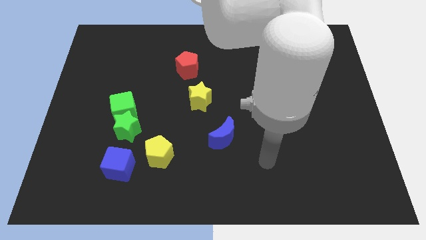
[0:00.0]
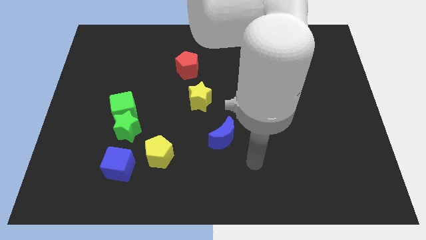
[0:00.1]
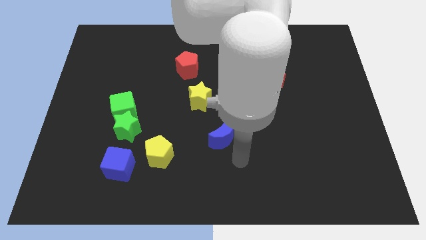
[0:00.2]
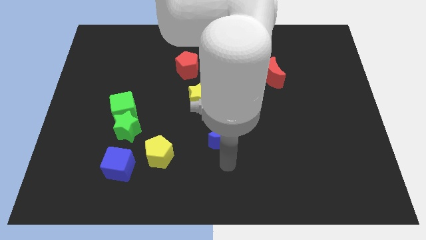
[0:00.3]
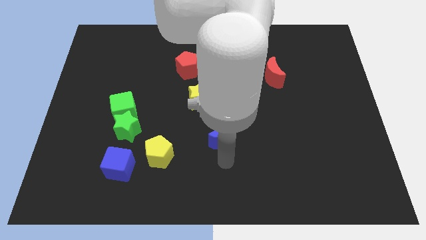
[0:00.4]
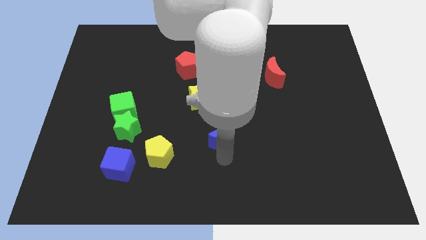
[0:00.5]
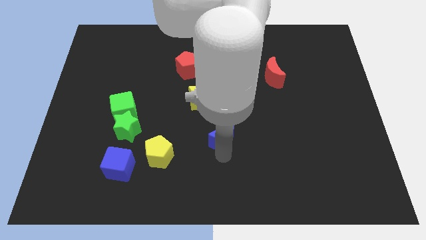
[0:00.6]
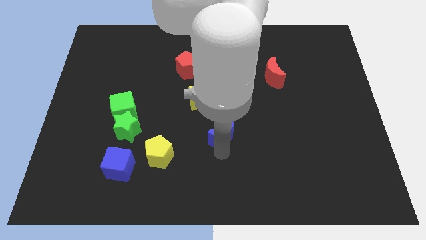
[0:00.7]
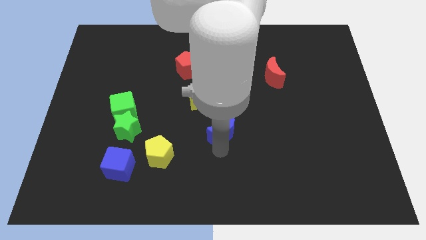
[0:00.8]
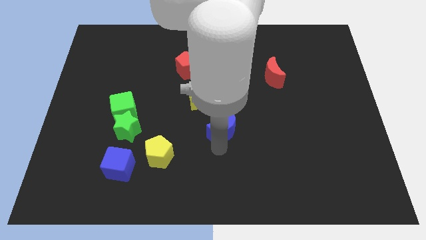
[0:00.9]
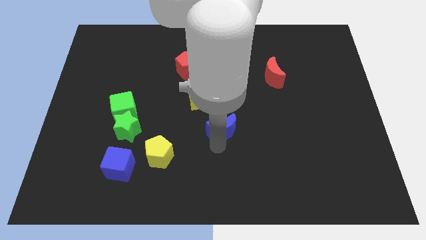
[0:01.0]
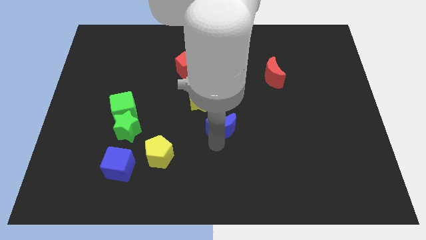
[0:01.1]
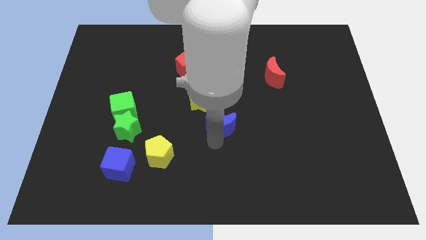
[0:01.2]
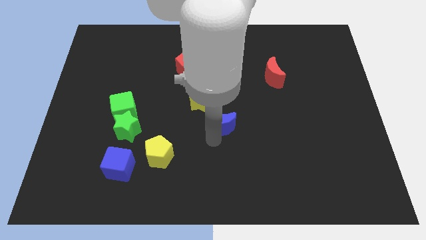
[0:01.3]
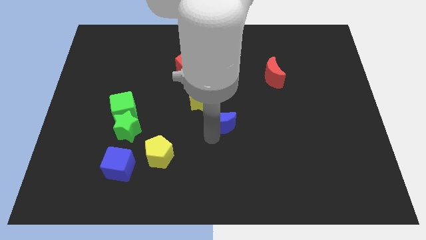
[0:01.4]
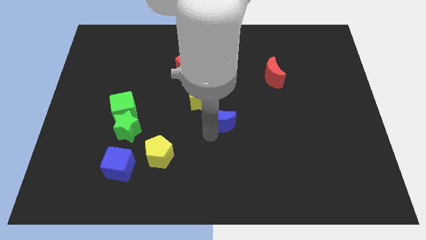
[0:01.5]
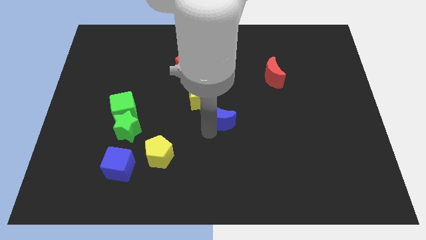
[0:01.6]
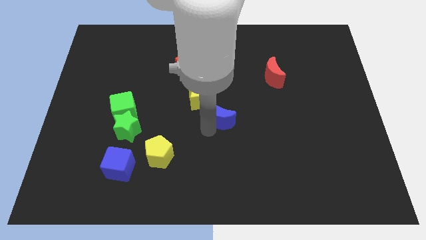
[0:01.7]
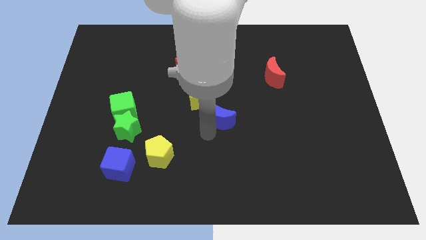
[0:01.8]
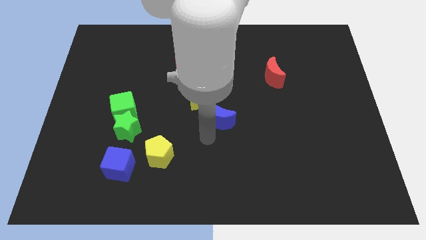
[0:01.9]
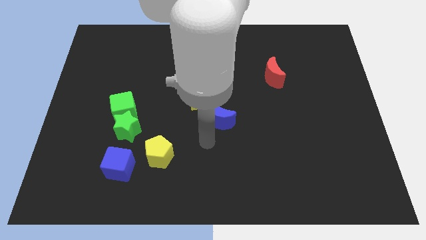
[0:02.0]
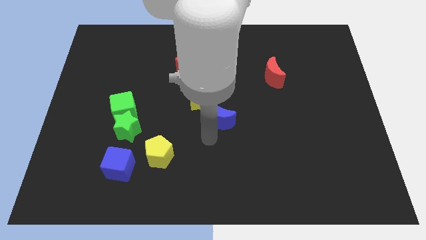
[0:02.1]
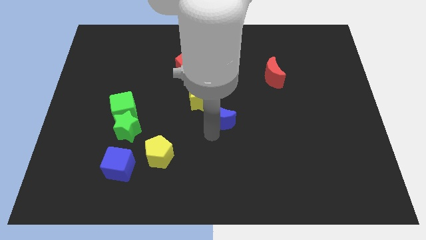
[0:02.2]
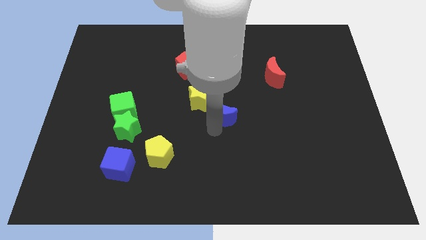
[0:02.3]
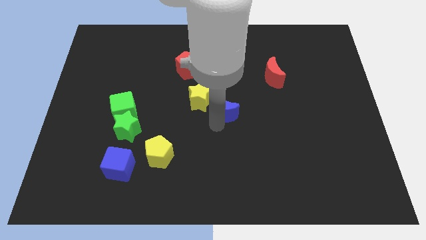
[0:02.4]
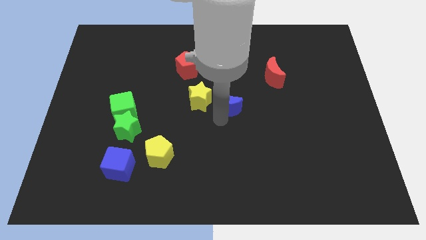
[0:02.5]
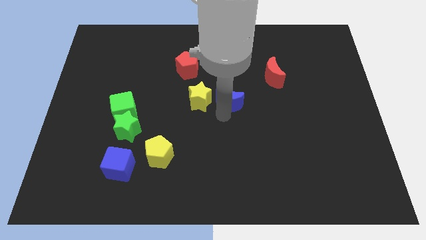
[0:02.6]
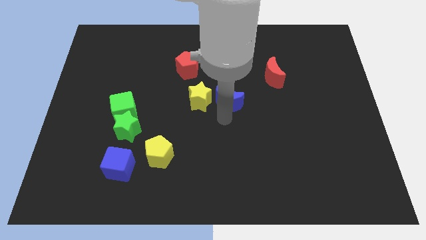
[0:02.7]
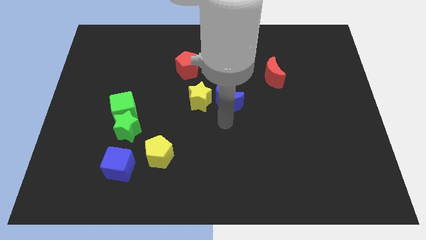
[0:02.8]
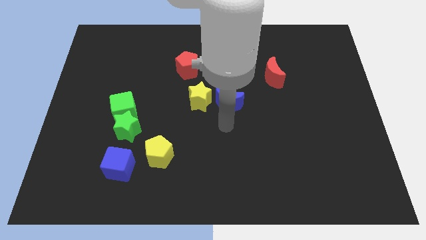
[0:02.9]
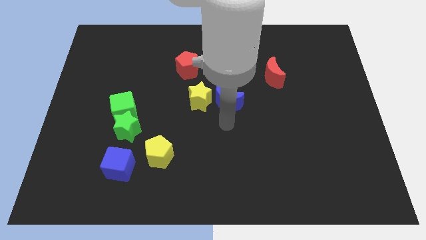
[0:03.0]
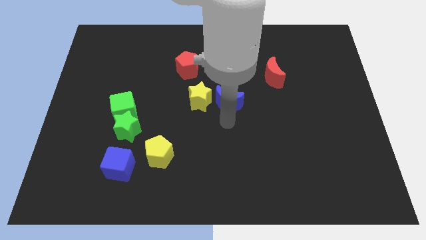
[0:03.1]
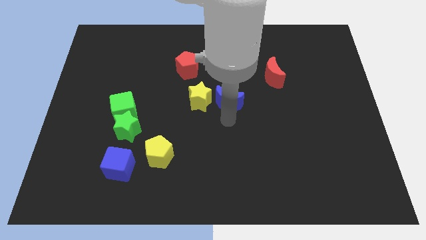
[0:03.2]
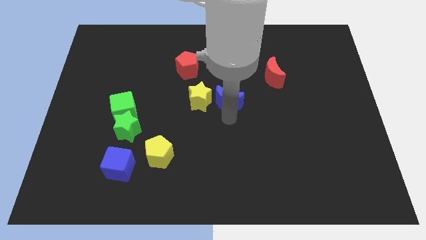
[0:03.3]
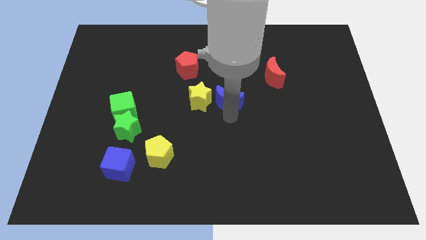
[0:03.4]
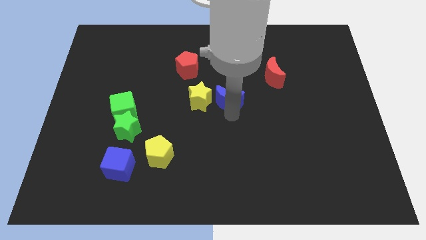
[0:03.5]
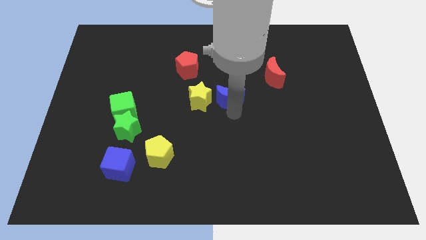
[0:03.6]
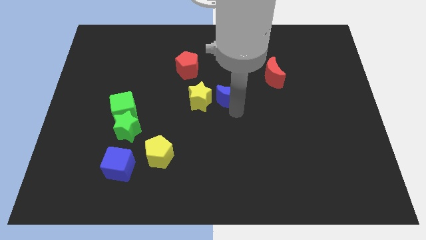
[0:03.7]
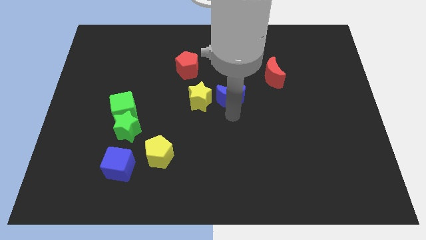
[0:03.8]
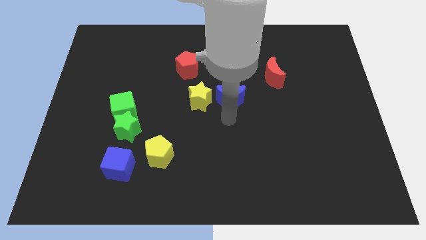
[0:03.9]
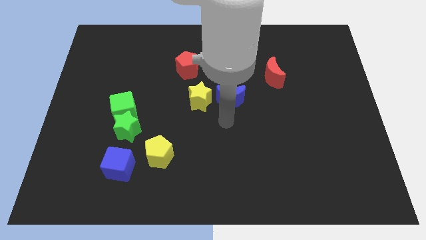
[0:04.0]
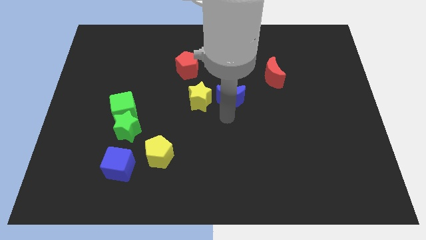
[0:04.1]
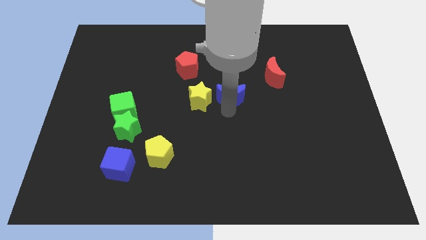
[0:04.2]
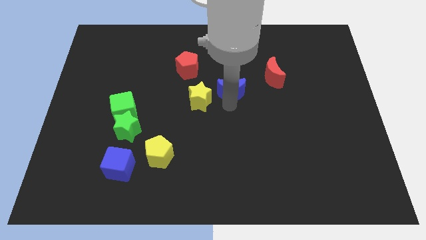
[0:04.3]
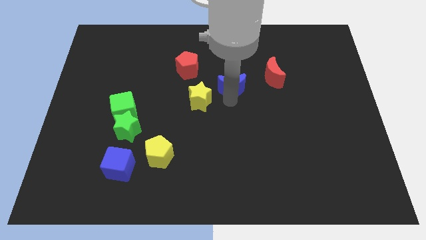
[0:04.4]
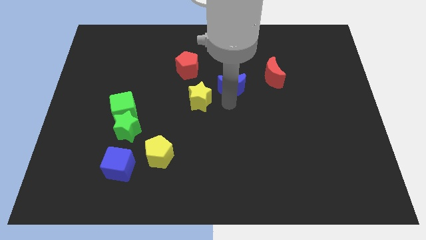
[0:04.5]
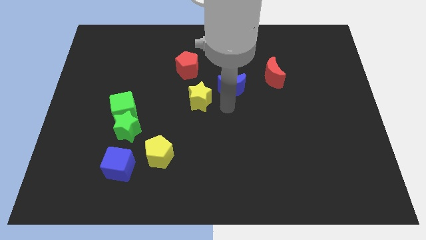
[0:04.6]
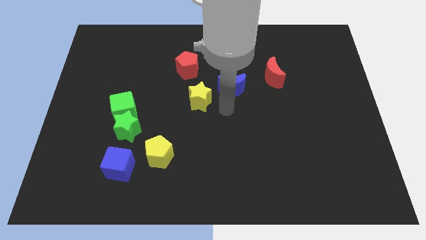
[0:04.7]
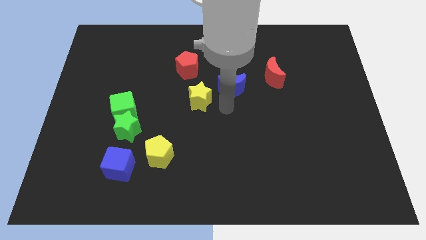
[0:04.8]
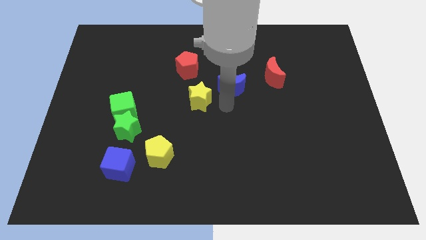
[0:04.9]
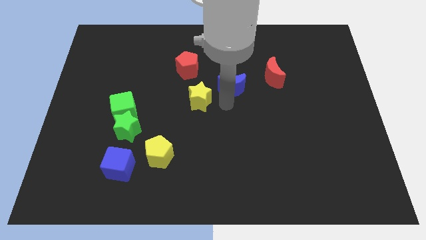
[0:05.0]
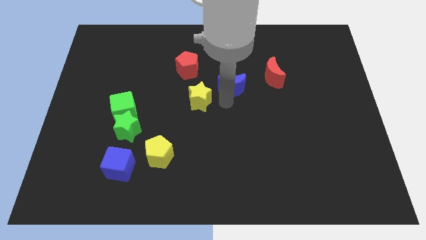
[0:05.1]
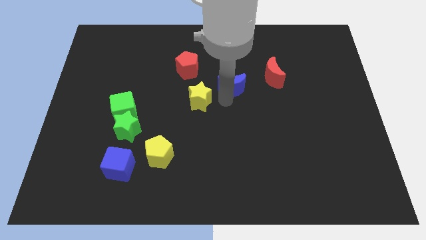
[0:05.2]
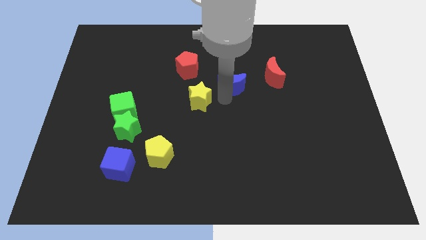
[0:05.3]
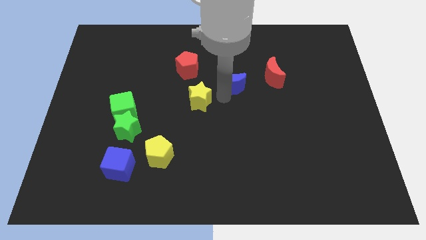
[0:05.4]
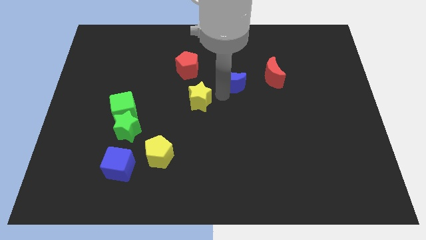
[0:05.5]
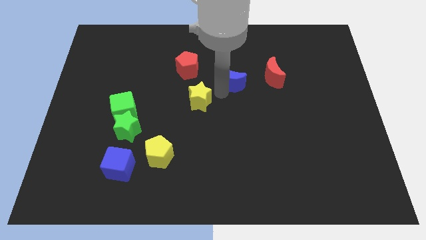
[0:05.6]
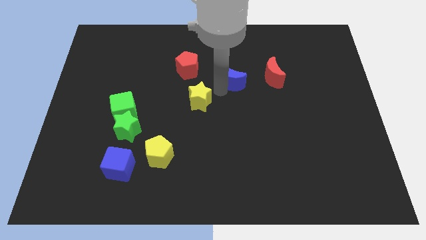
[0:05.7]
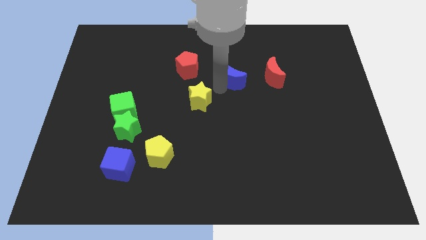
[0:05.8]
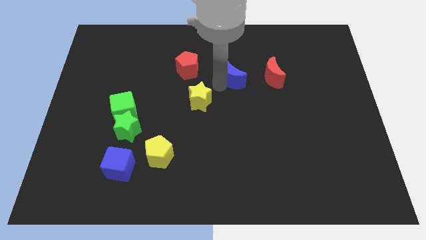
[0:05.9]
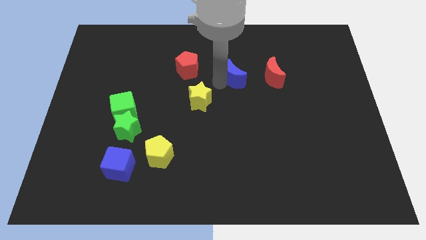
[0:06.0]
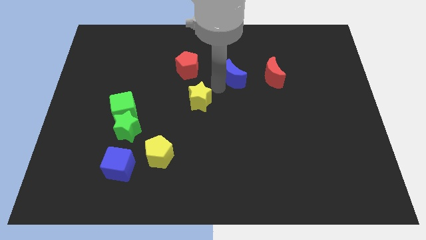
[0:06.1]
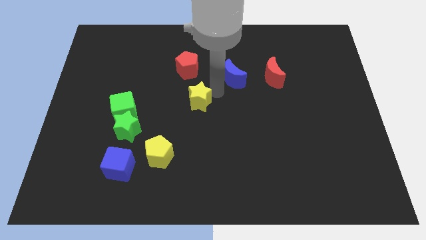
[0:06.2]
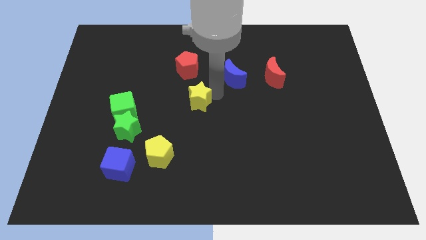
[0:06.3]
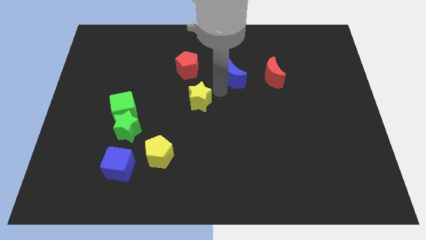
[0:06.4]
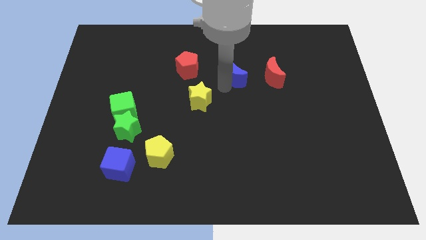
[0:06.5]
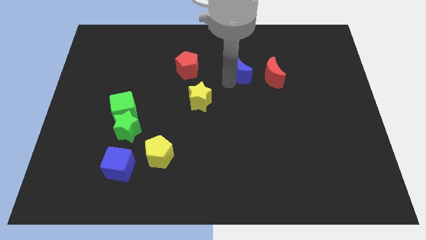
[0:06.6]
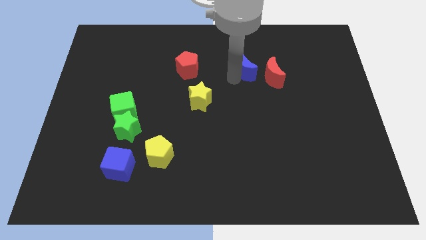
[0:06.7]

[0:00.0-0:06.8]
push the blue moon to the top left side of the red moon

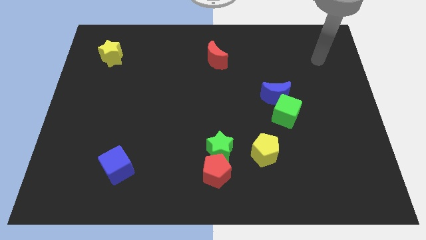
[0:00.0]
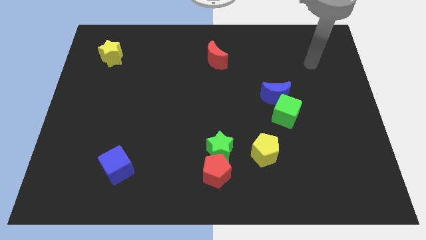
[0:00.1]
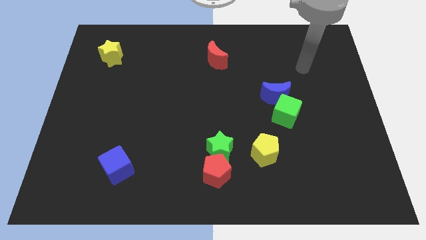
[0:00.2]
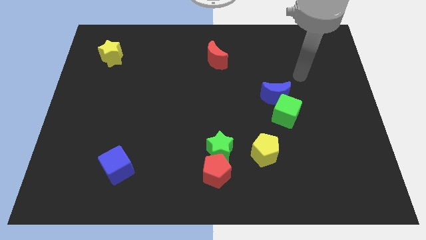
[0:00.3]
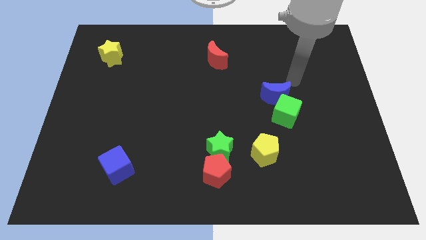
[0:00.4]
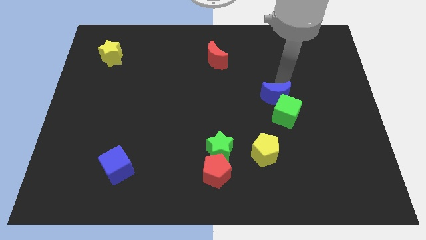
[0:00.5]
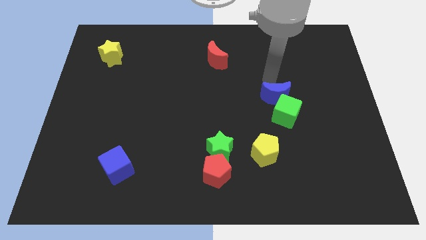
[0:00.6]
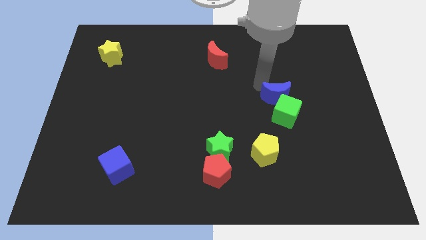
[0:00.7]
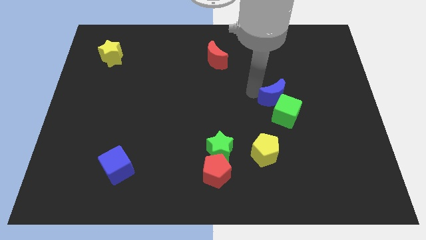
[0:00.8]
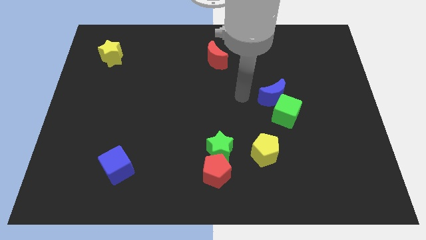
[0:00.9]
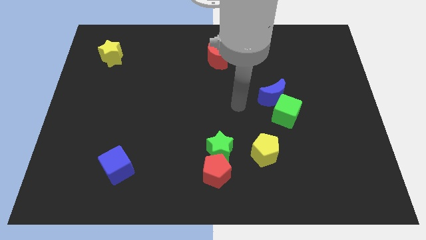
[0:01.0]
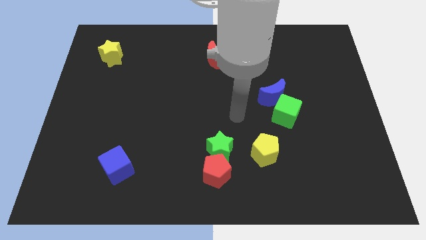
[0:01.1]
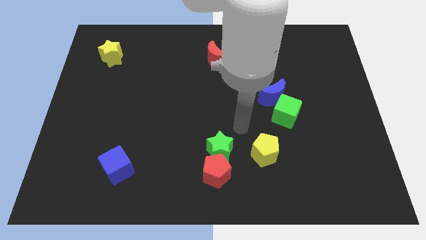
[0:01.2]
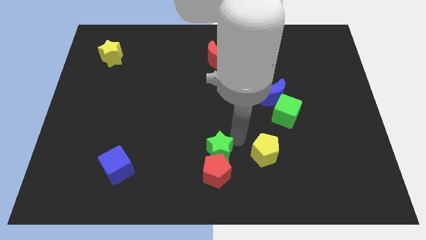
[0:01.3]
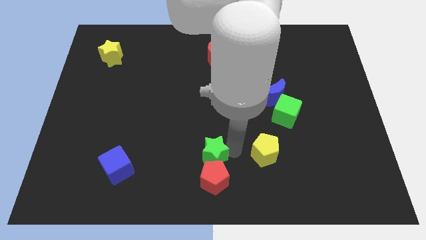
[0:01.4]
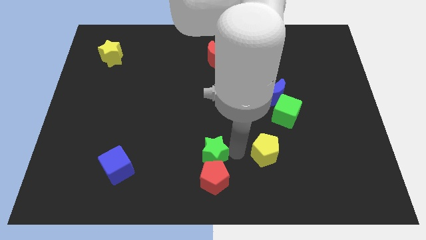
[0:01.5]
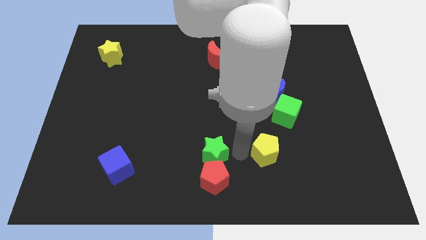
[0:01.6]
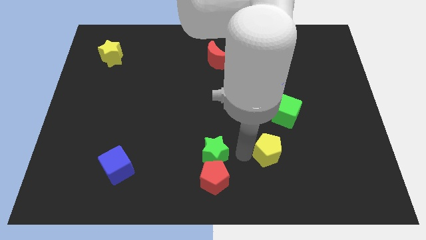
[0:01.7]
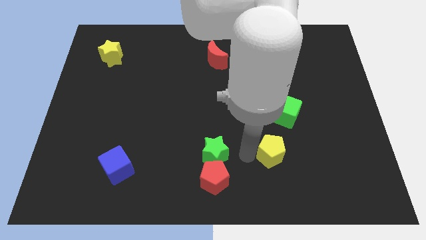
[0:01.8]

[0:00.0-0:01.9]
put the yellow pentagon below the green cube
